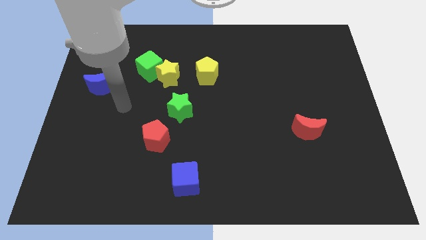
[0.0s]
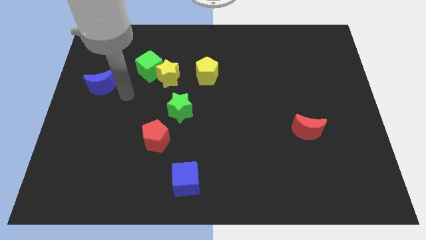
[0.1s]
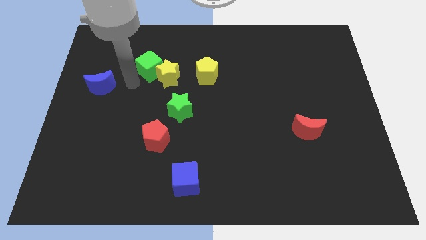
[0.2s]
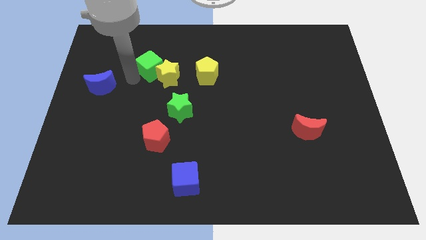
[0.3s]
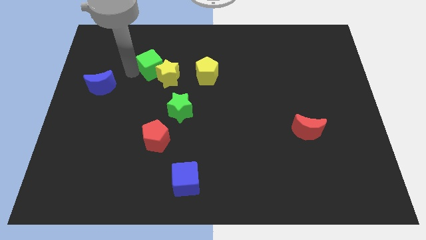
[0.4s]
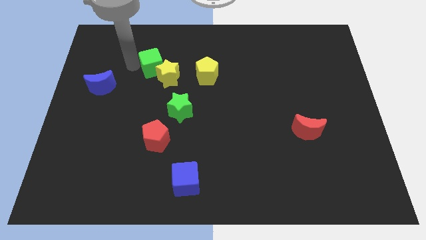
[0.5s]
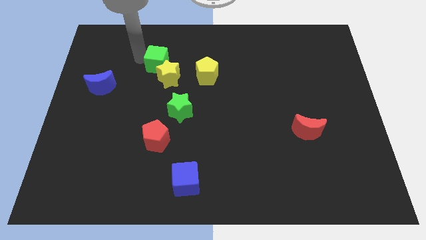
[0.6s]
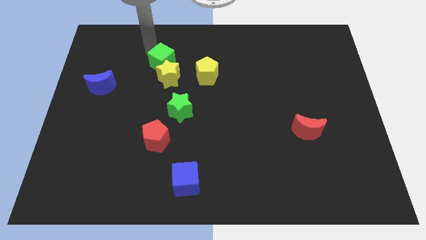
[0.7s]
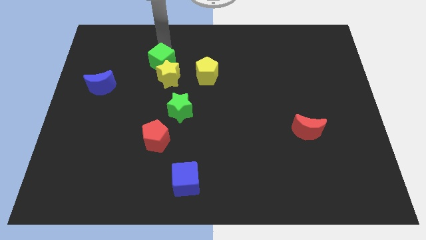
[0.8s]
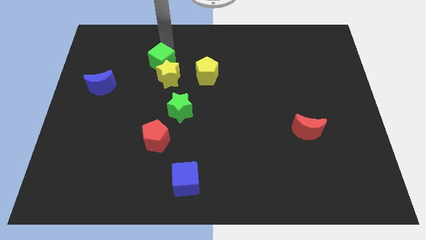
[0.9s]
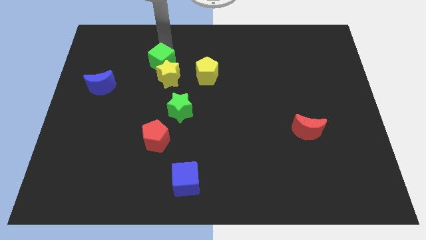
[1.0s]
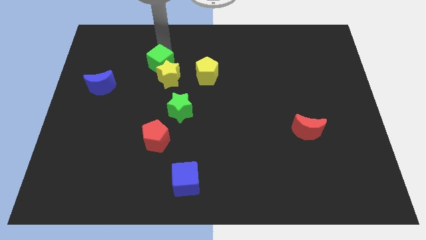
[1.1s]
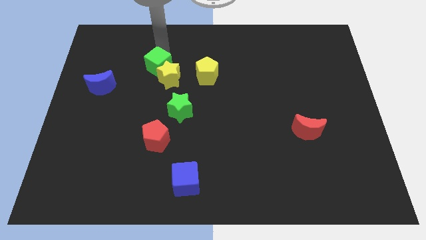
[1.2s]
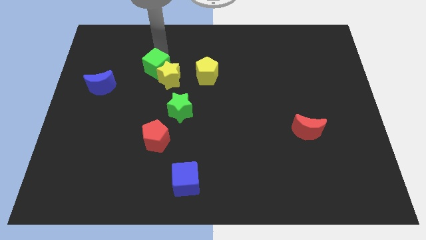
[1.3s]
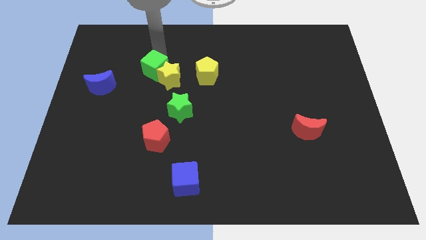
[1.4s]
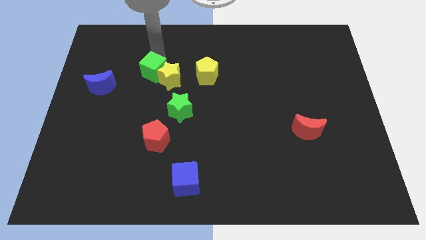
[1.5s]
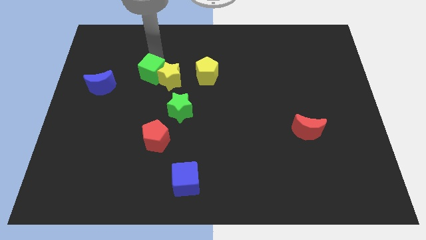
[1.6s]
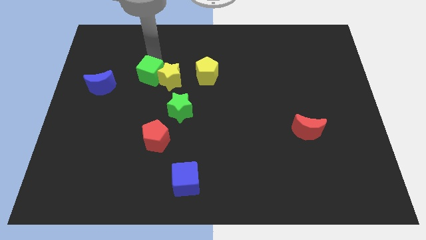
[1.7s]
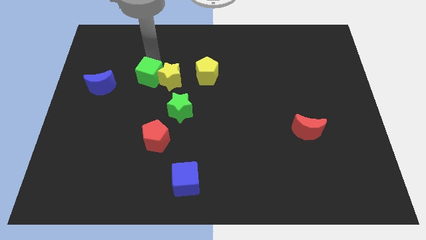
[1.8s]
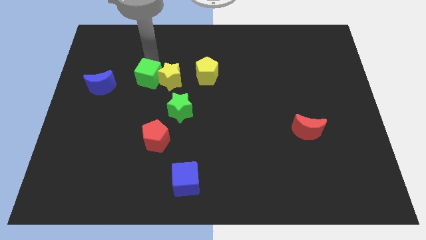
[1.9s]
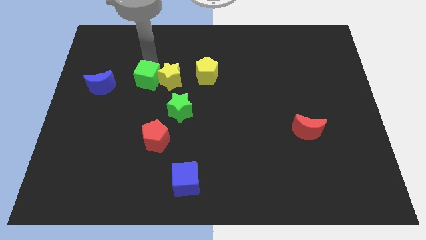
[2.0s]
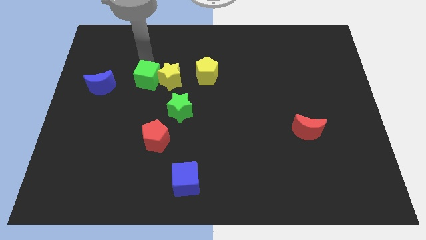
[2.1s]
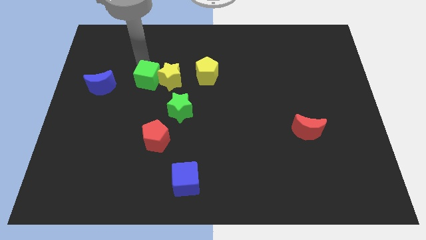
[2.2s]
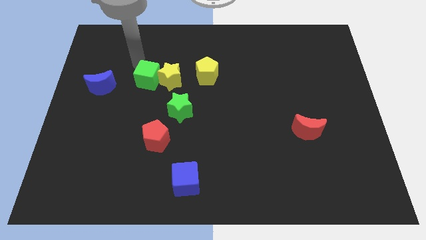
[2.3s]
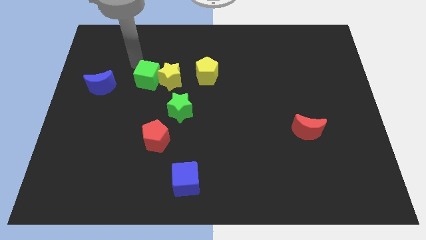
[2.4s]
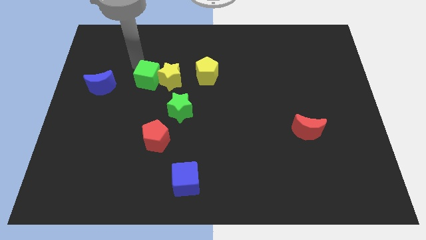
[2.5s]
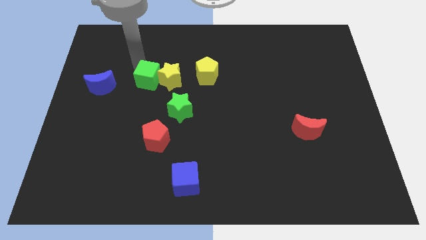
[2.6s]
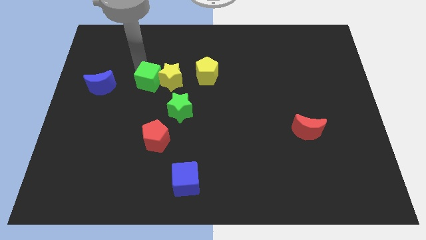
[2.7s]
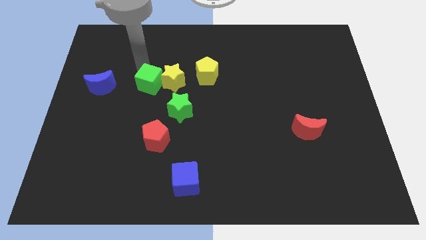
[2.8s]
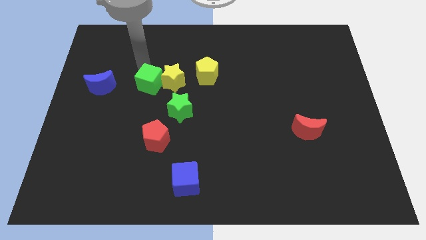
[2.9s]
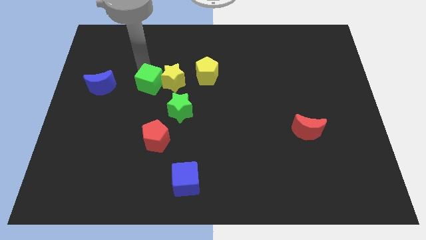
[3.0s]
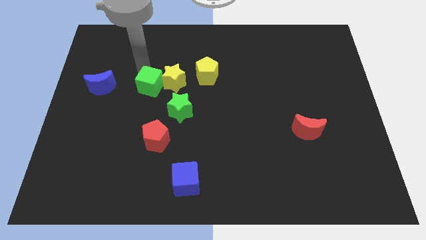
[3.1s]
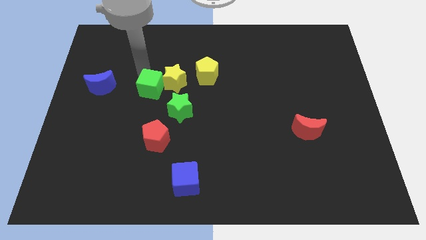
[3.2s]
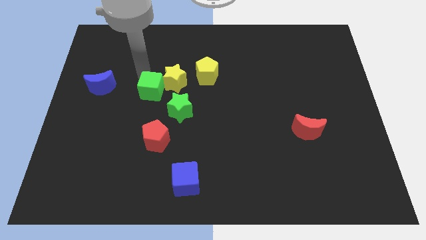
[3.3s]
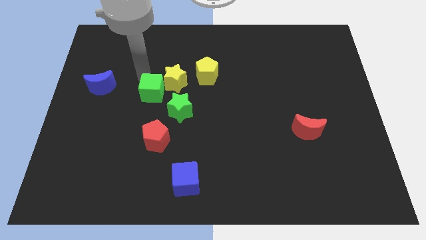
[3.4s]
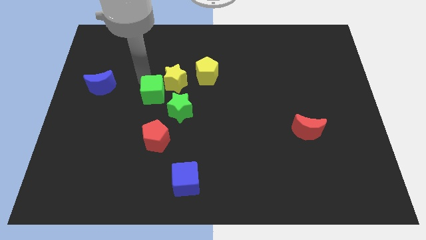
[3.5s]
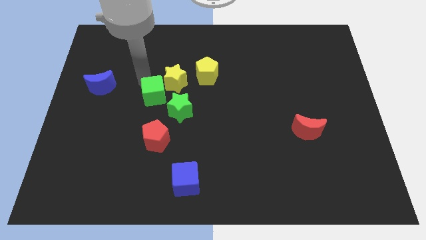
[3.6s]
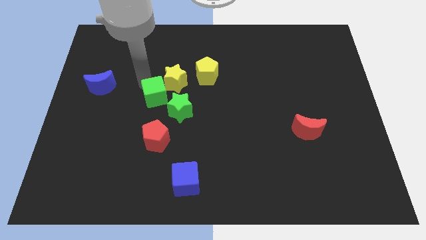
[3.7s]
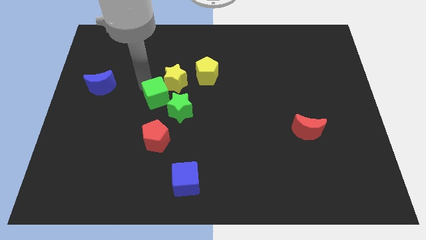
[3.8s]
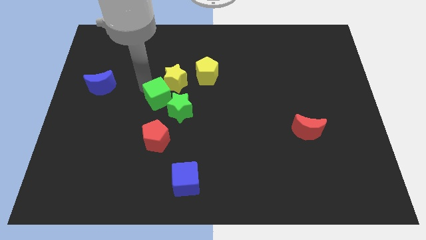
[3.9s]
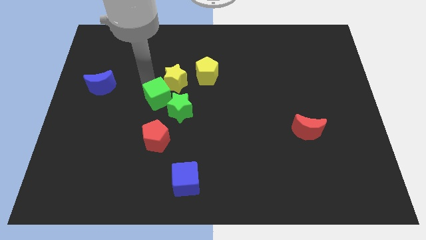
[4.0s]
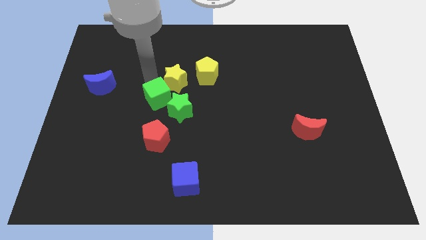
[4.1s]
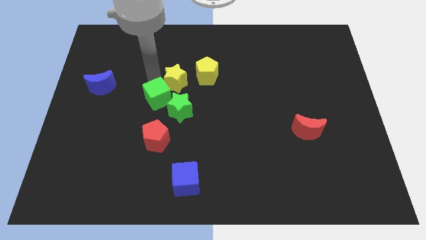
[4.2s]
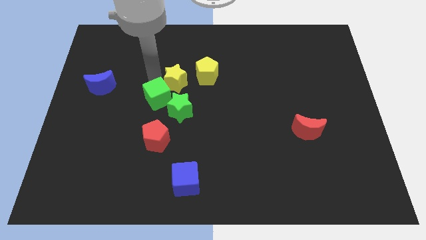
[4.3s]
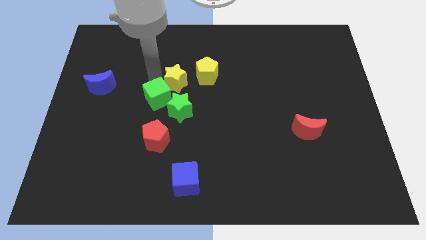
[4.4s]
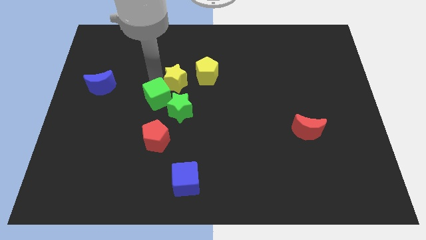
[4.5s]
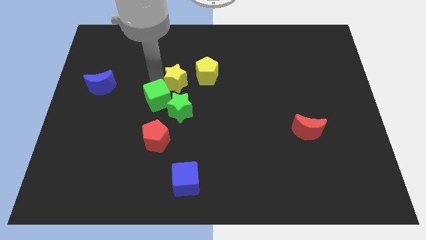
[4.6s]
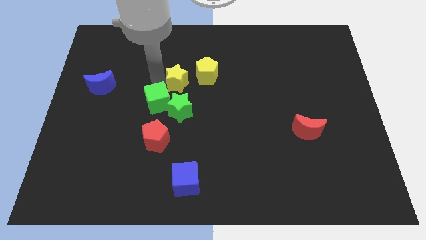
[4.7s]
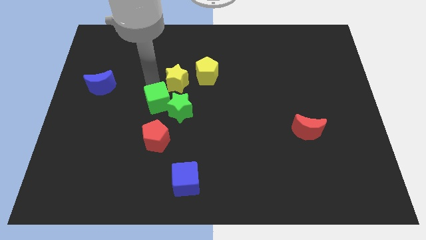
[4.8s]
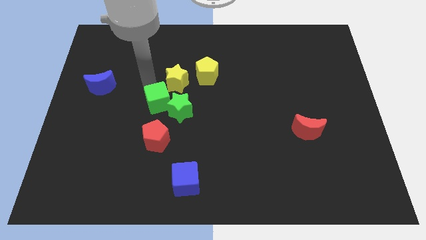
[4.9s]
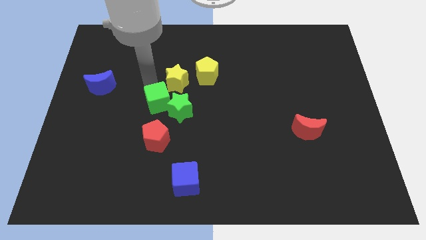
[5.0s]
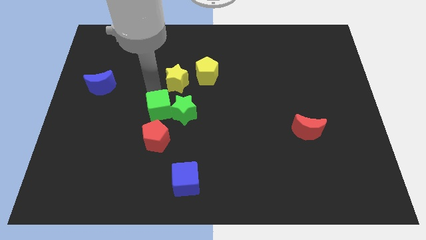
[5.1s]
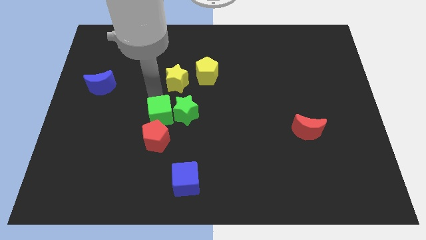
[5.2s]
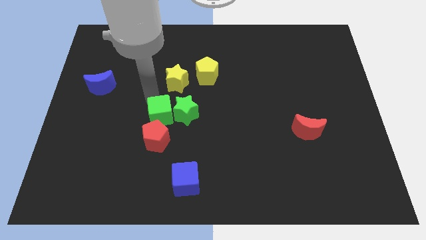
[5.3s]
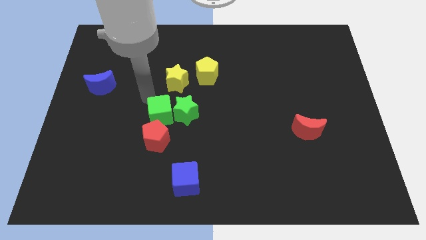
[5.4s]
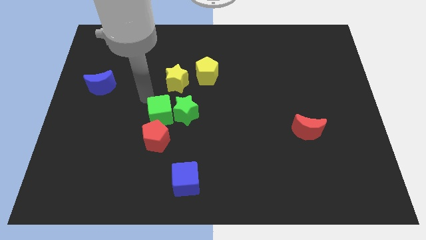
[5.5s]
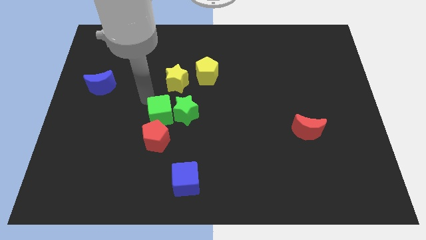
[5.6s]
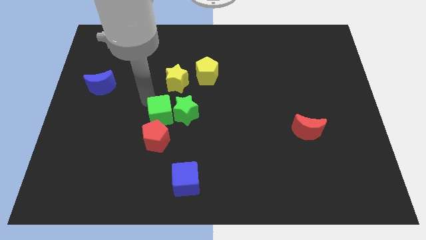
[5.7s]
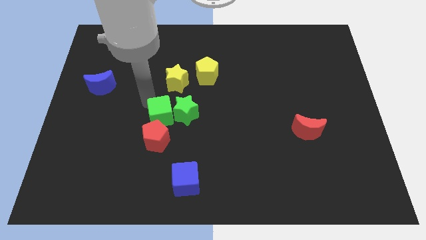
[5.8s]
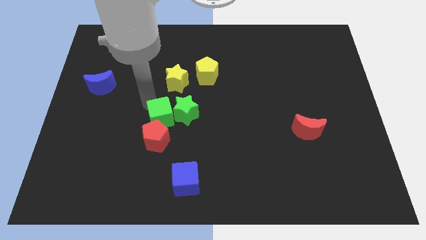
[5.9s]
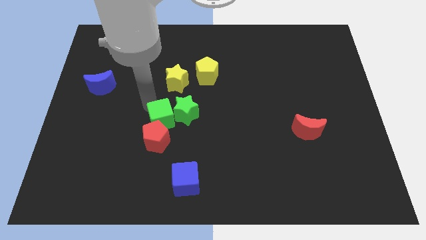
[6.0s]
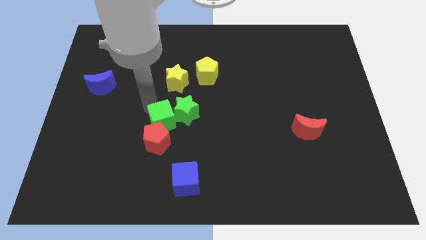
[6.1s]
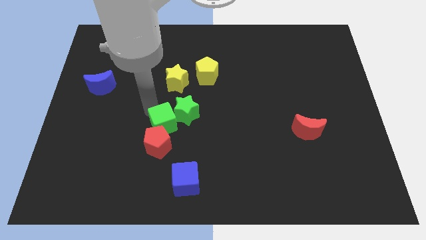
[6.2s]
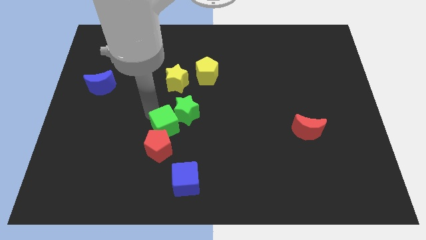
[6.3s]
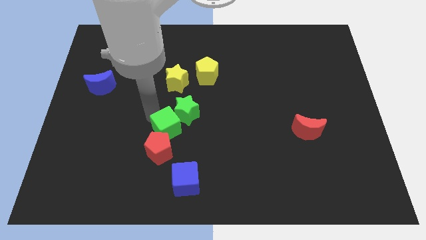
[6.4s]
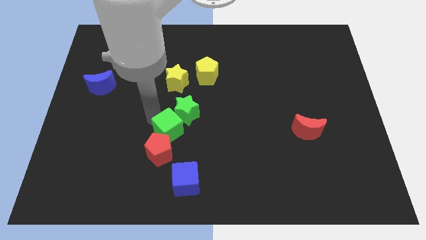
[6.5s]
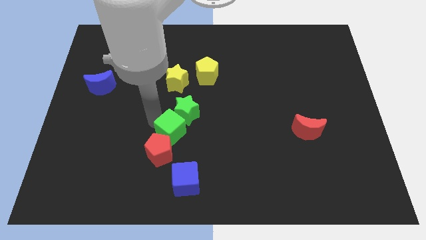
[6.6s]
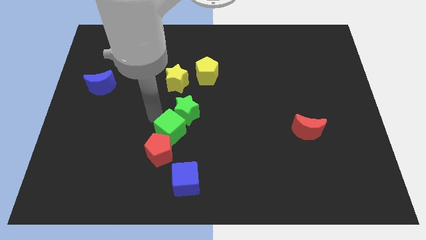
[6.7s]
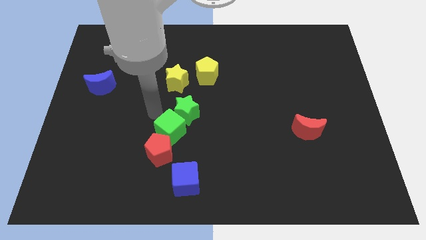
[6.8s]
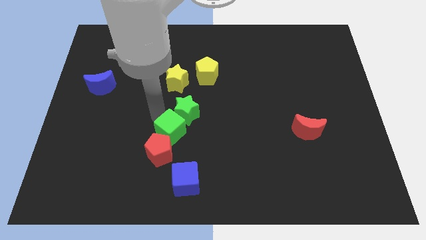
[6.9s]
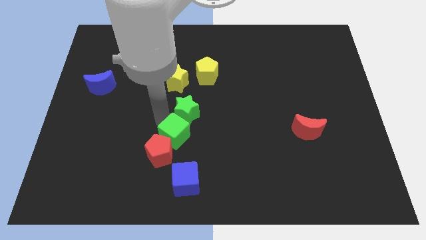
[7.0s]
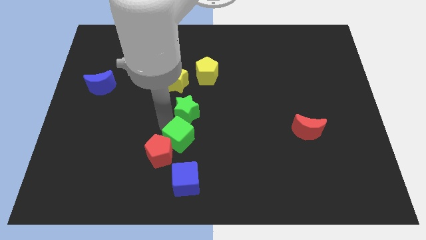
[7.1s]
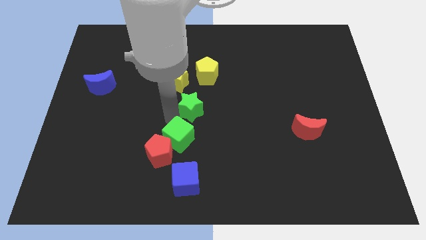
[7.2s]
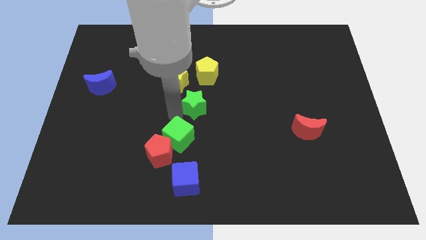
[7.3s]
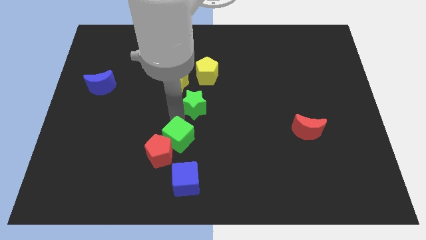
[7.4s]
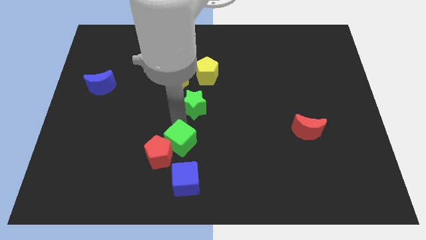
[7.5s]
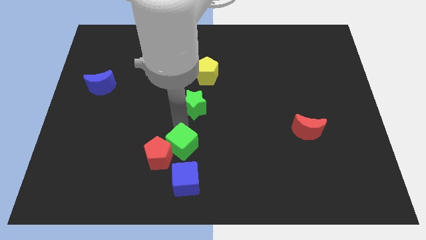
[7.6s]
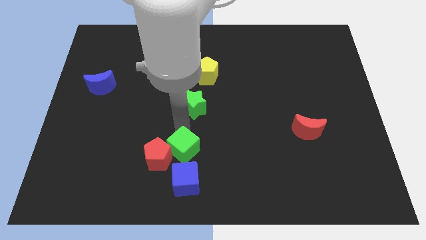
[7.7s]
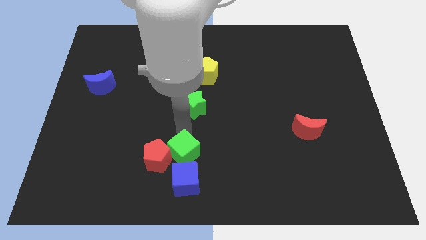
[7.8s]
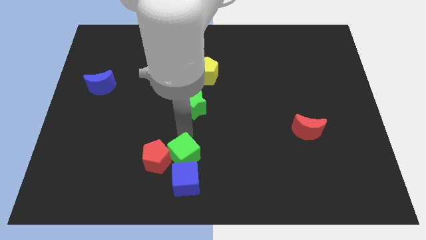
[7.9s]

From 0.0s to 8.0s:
put the green cube towards the blue cube
